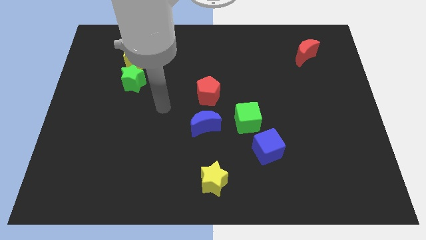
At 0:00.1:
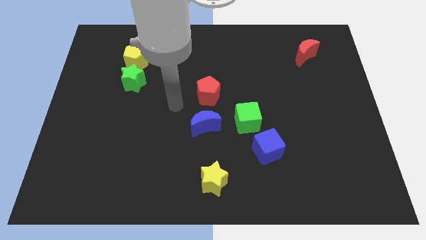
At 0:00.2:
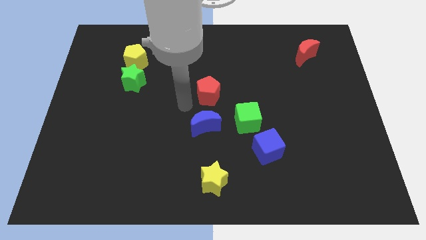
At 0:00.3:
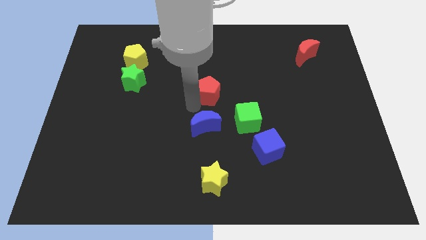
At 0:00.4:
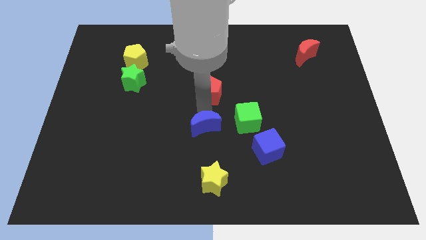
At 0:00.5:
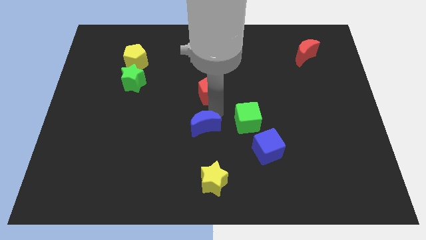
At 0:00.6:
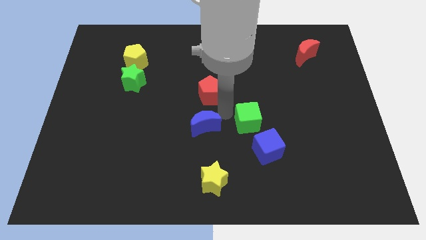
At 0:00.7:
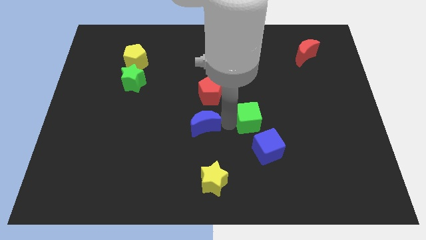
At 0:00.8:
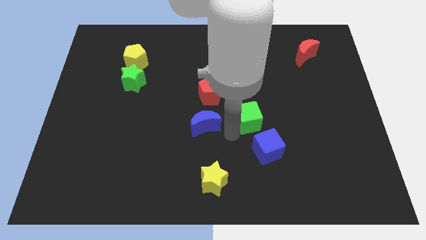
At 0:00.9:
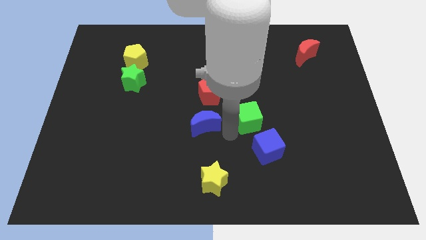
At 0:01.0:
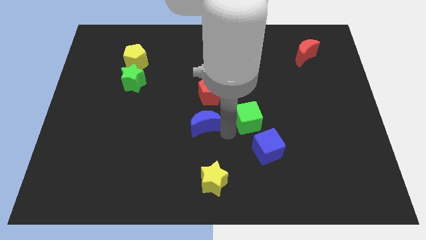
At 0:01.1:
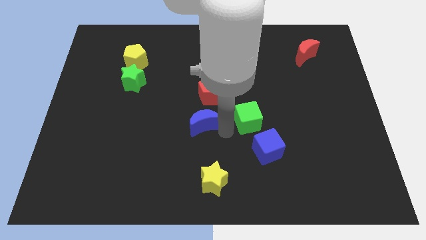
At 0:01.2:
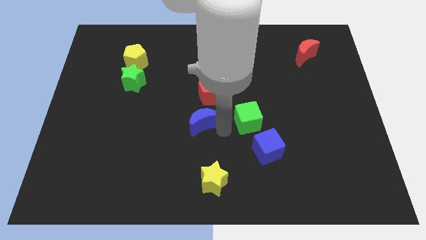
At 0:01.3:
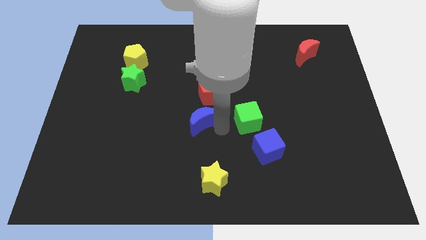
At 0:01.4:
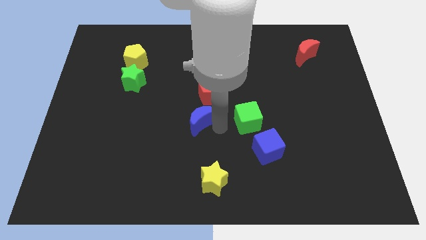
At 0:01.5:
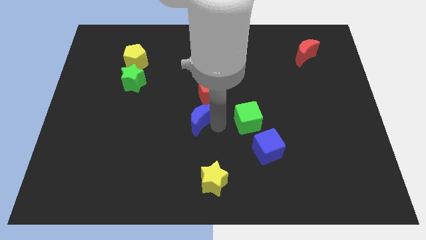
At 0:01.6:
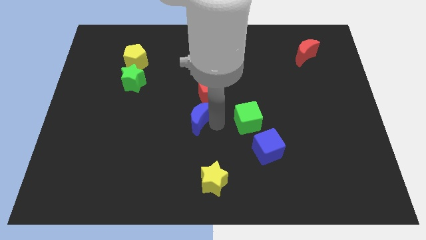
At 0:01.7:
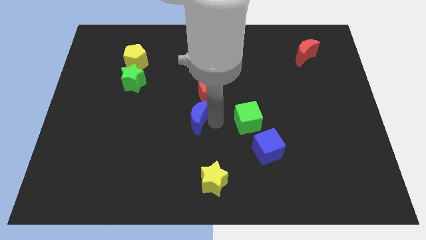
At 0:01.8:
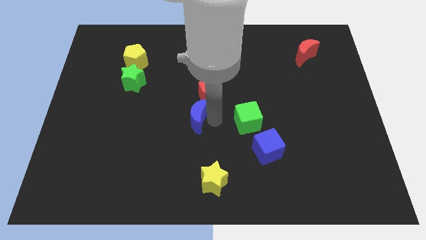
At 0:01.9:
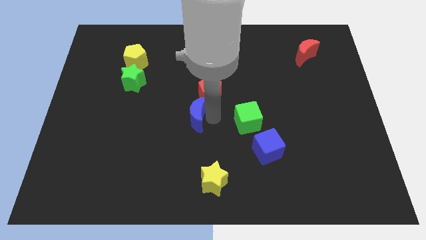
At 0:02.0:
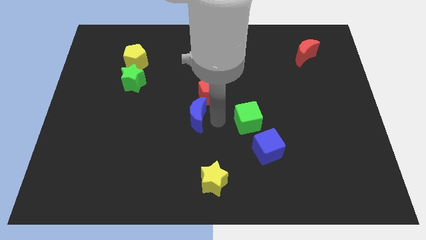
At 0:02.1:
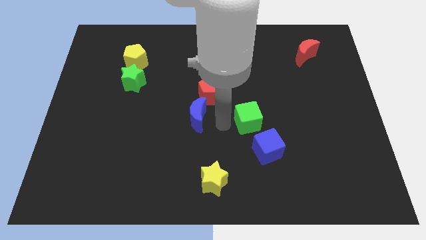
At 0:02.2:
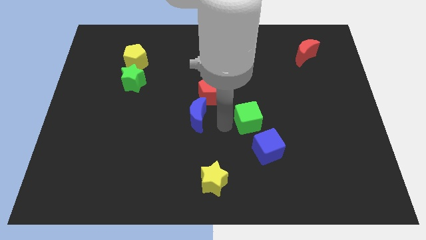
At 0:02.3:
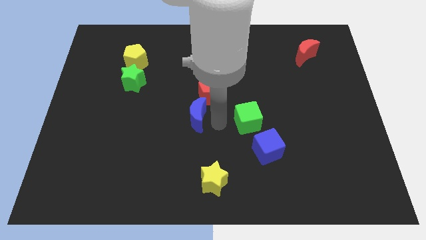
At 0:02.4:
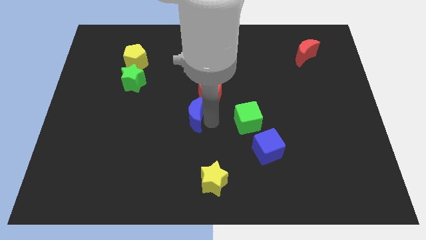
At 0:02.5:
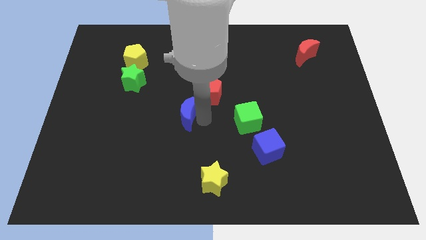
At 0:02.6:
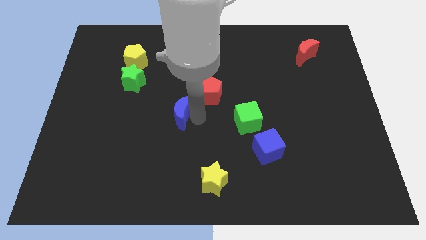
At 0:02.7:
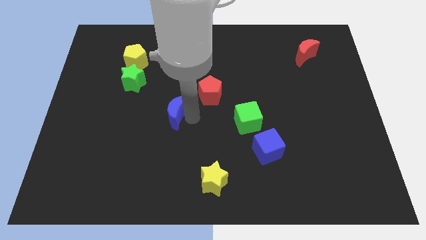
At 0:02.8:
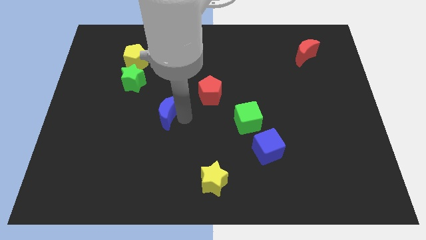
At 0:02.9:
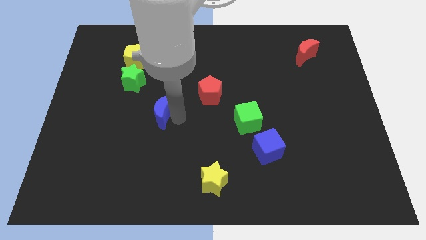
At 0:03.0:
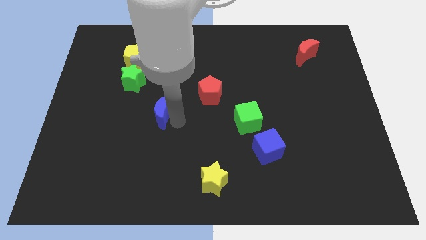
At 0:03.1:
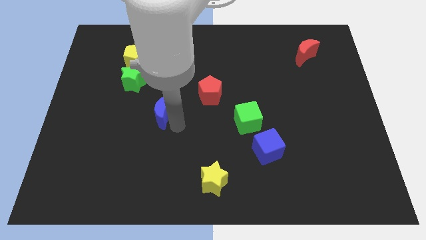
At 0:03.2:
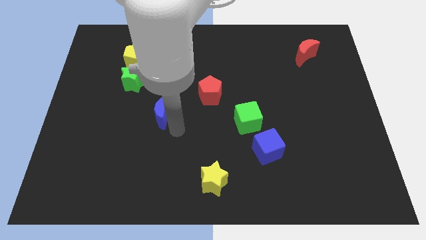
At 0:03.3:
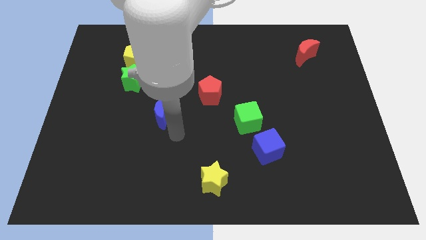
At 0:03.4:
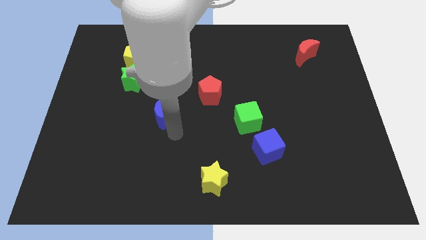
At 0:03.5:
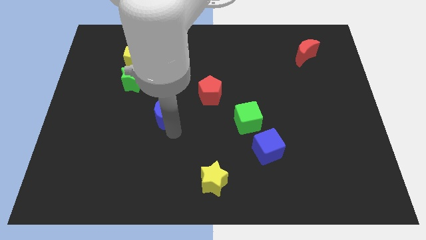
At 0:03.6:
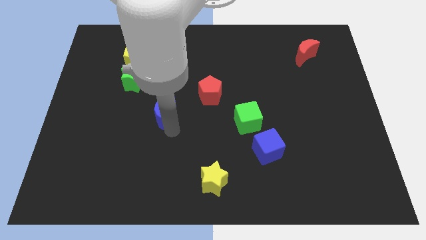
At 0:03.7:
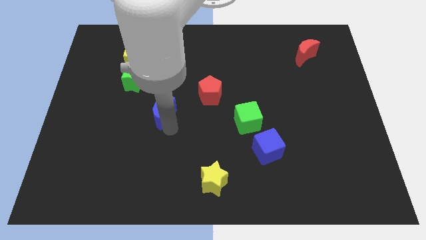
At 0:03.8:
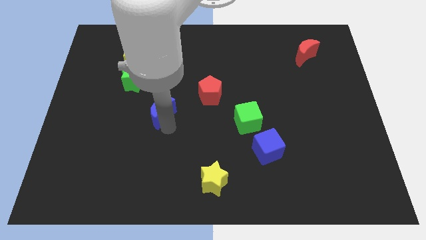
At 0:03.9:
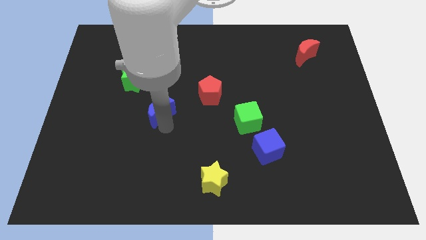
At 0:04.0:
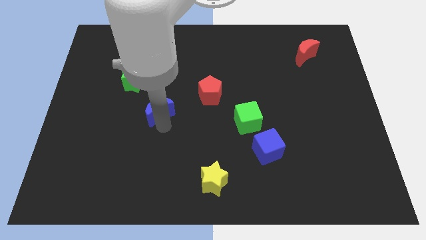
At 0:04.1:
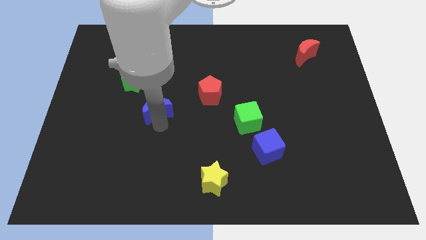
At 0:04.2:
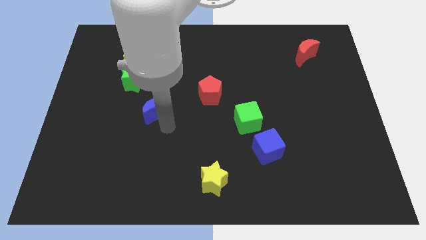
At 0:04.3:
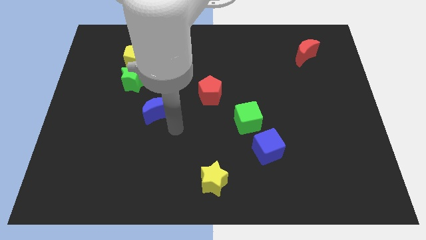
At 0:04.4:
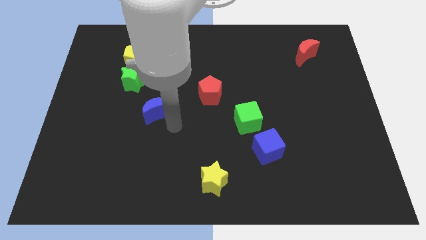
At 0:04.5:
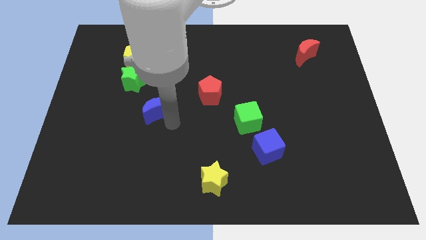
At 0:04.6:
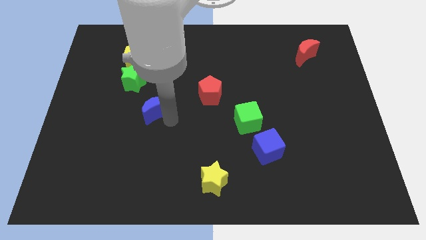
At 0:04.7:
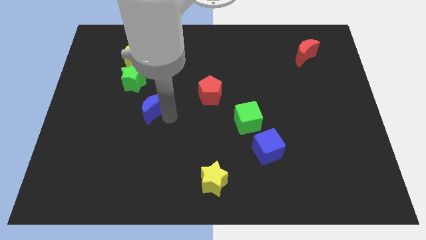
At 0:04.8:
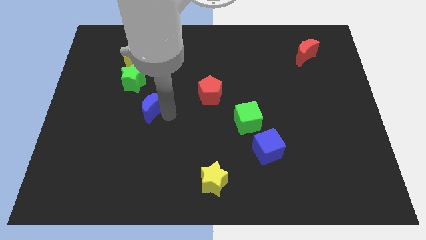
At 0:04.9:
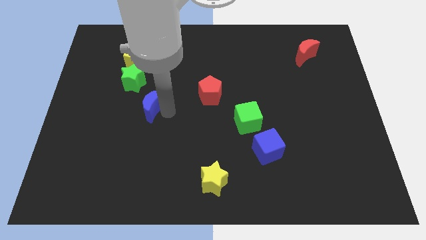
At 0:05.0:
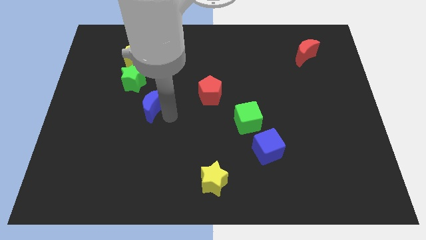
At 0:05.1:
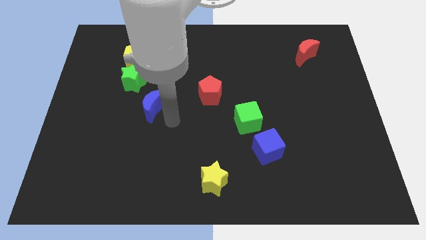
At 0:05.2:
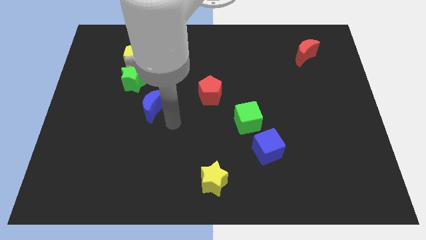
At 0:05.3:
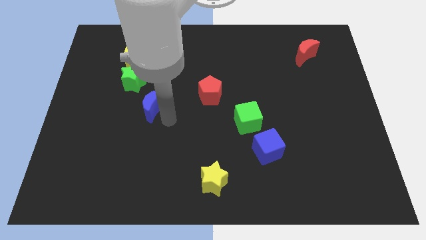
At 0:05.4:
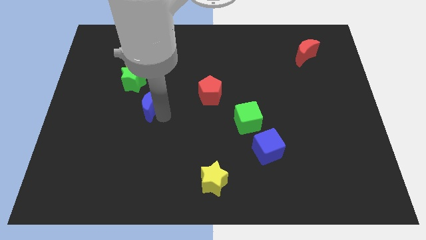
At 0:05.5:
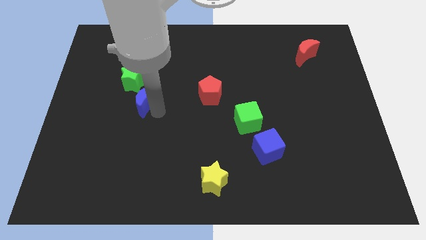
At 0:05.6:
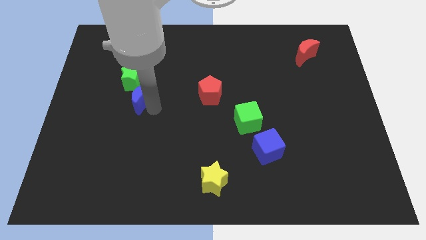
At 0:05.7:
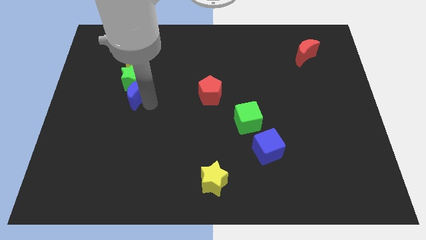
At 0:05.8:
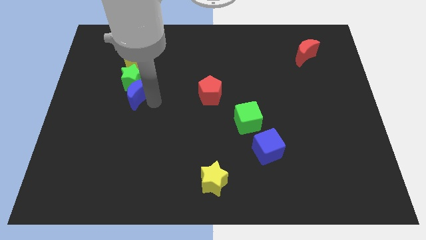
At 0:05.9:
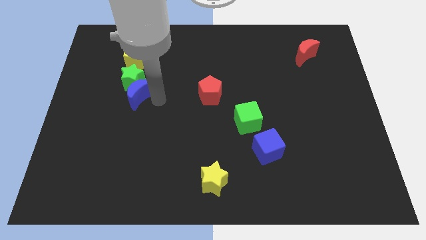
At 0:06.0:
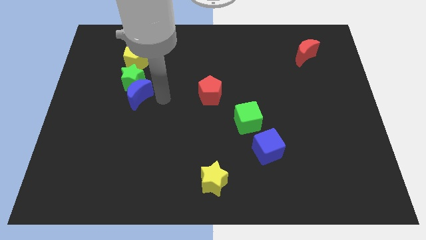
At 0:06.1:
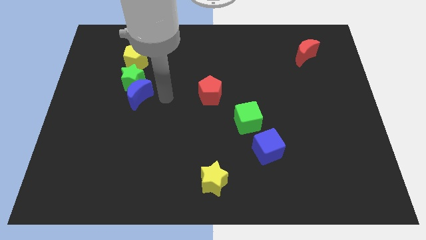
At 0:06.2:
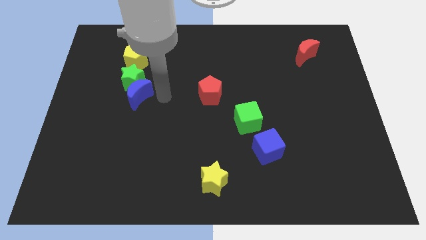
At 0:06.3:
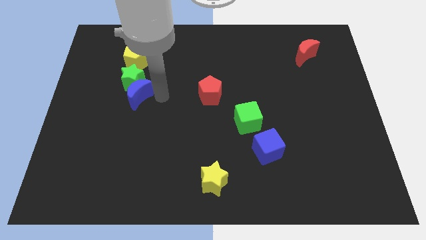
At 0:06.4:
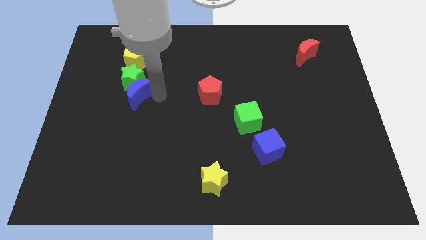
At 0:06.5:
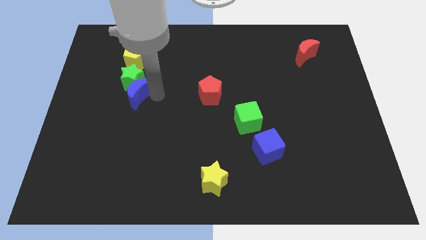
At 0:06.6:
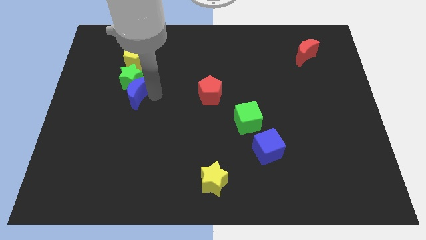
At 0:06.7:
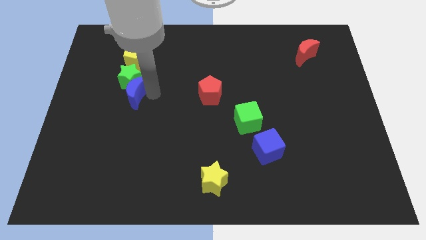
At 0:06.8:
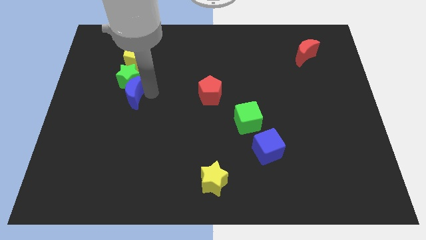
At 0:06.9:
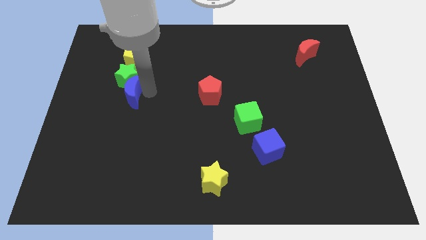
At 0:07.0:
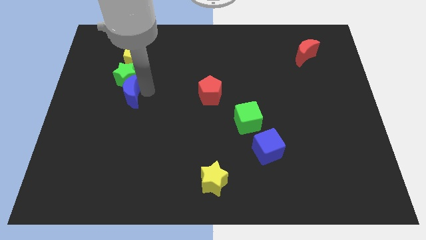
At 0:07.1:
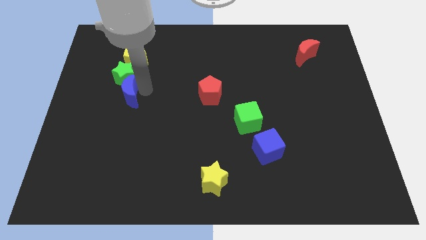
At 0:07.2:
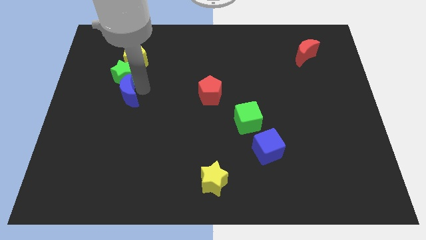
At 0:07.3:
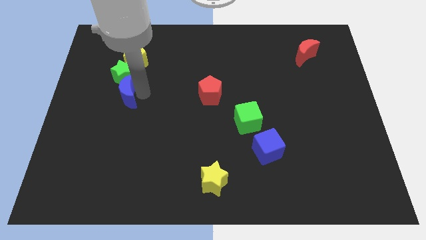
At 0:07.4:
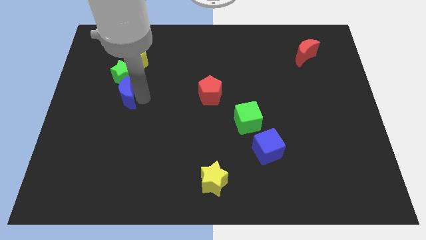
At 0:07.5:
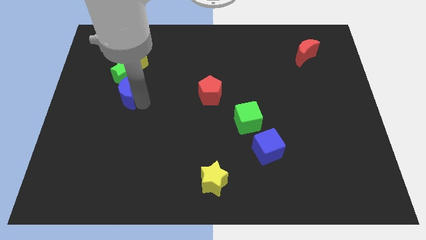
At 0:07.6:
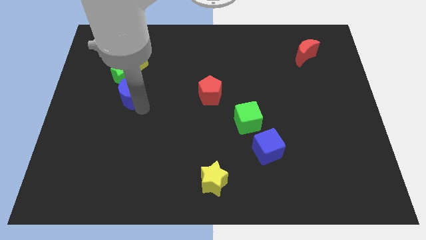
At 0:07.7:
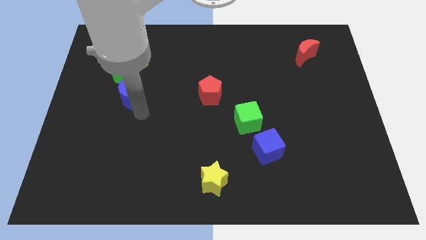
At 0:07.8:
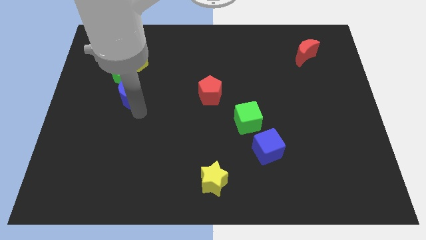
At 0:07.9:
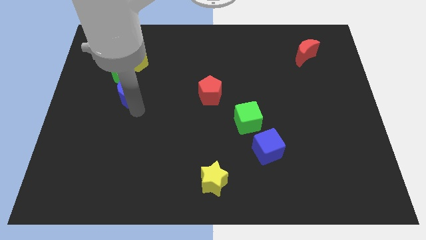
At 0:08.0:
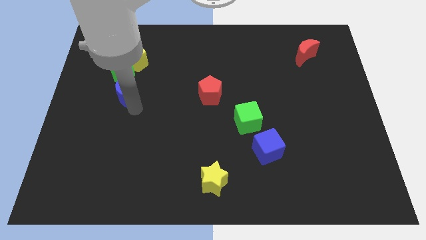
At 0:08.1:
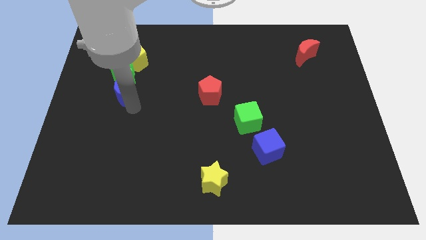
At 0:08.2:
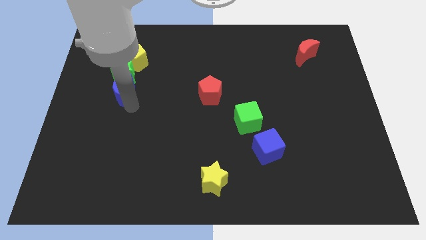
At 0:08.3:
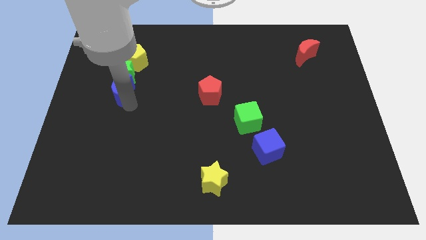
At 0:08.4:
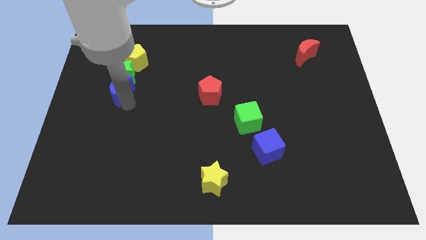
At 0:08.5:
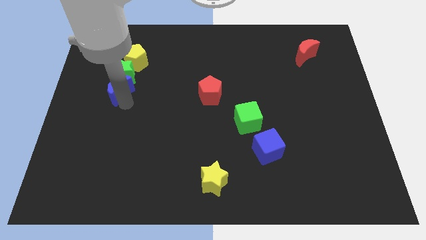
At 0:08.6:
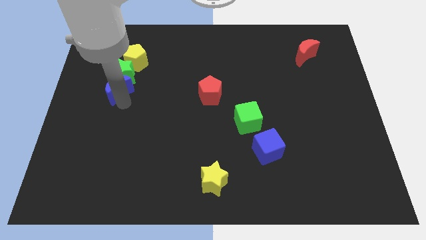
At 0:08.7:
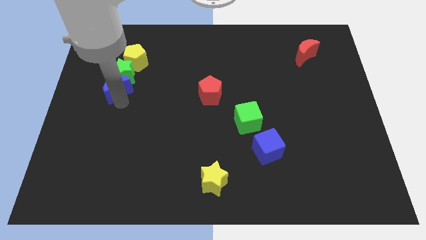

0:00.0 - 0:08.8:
push the blue moon diagonally upwards and to the left
